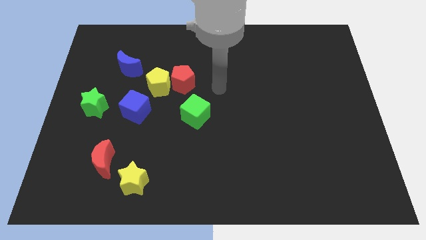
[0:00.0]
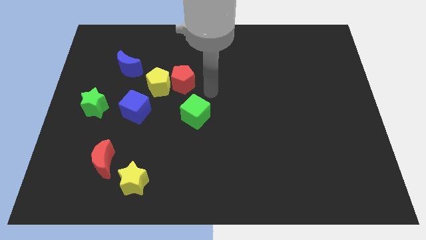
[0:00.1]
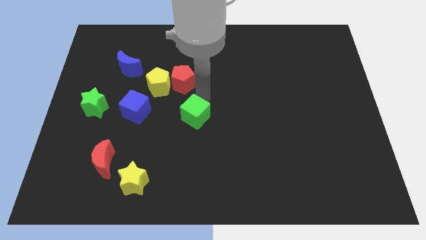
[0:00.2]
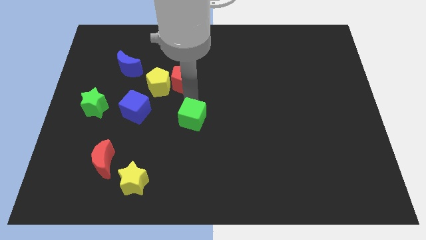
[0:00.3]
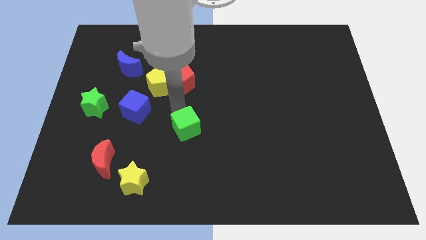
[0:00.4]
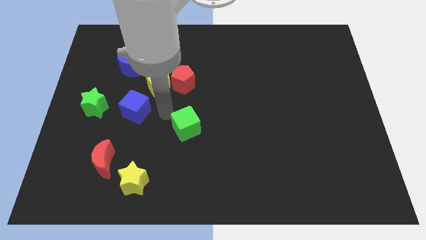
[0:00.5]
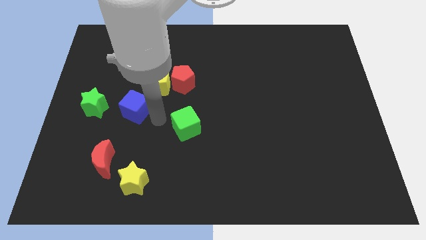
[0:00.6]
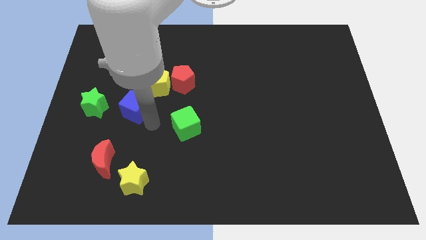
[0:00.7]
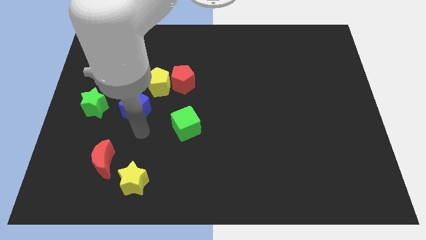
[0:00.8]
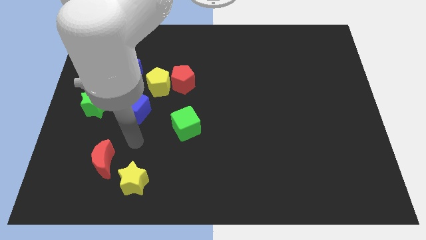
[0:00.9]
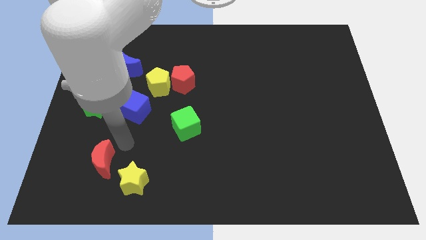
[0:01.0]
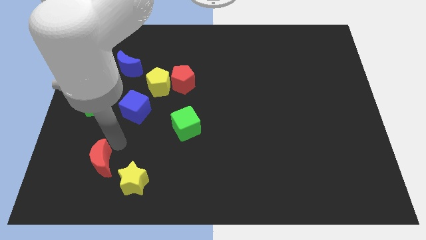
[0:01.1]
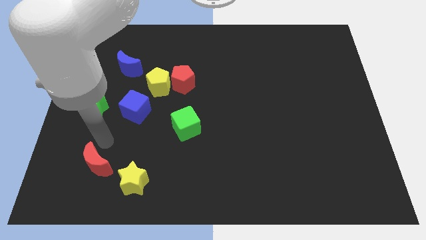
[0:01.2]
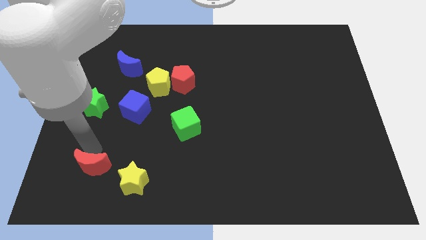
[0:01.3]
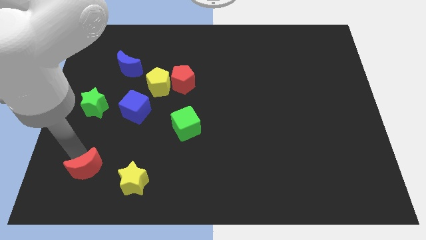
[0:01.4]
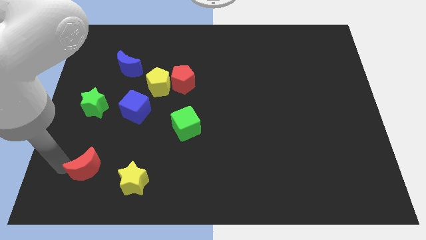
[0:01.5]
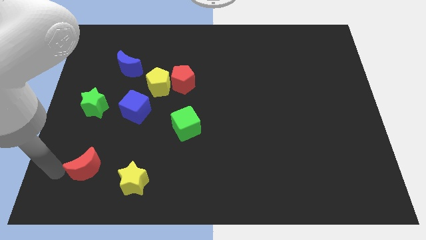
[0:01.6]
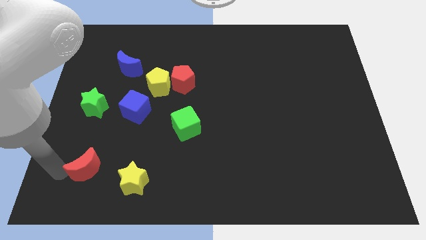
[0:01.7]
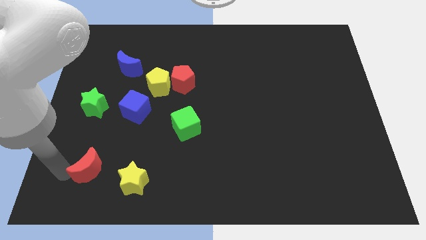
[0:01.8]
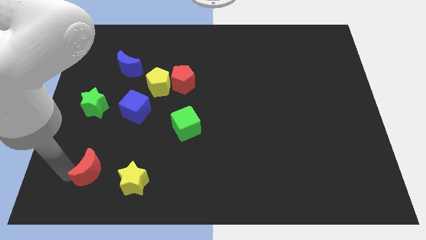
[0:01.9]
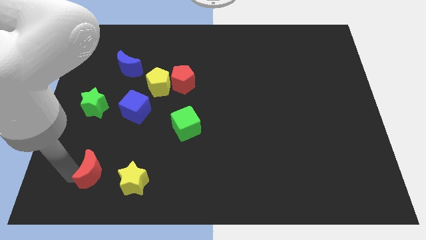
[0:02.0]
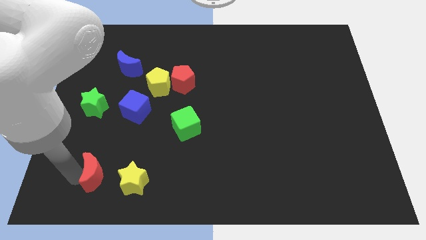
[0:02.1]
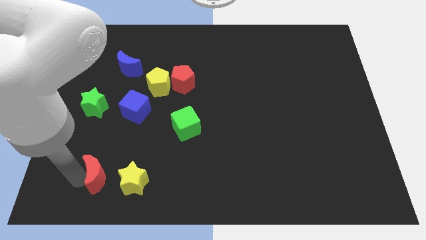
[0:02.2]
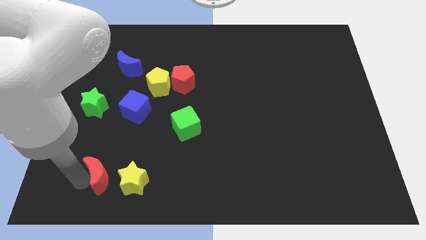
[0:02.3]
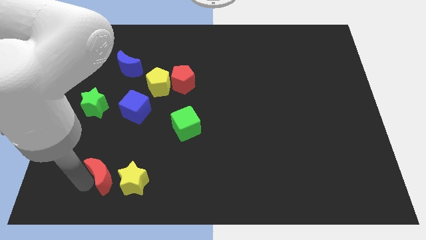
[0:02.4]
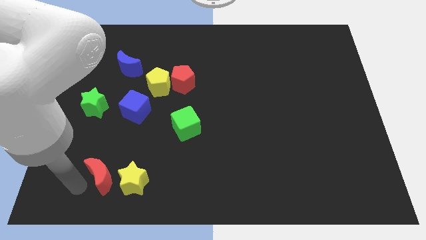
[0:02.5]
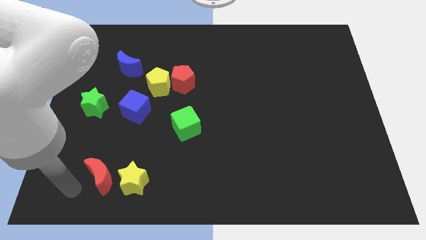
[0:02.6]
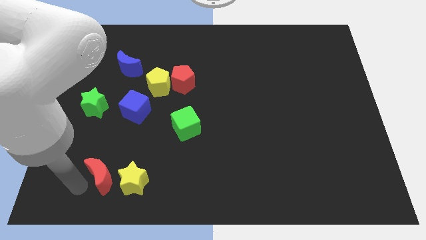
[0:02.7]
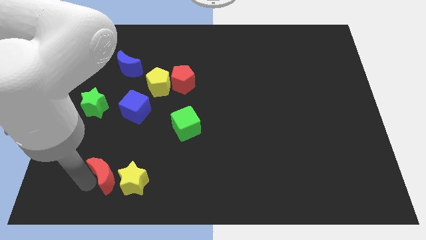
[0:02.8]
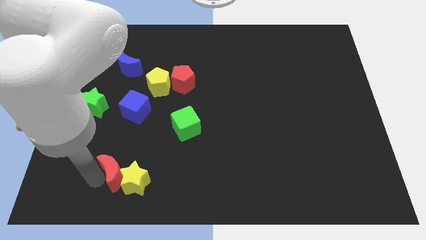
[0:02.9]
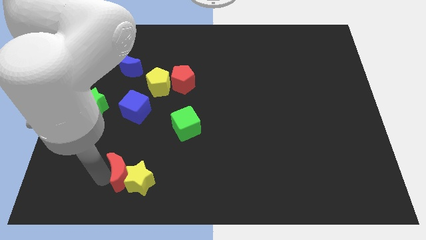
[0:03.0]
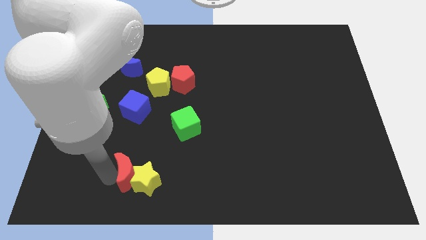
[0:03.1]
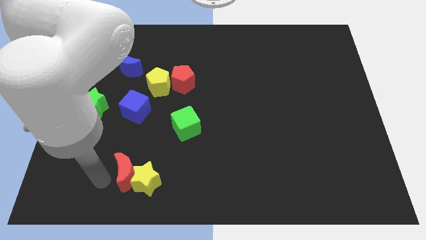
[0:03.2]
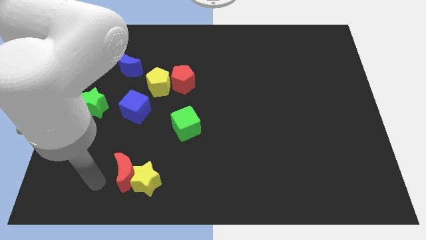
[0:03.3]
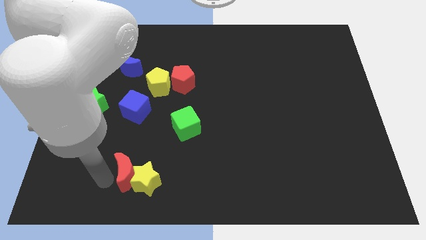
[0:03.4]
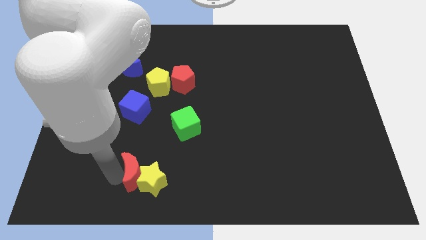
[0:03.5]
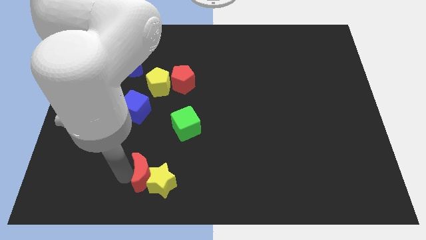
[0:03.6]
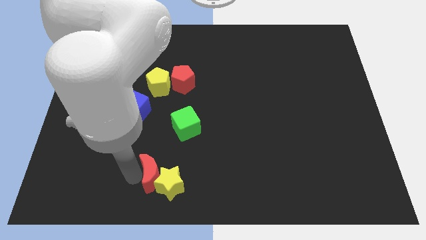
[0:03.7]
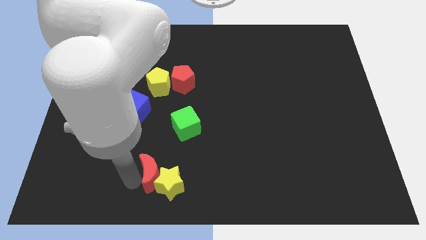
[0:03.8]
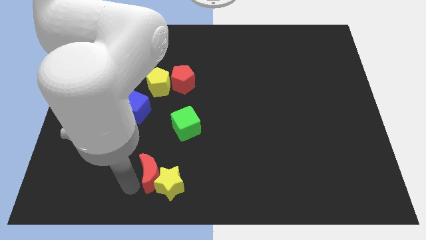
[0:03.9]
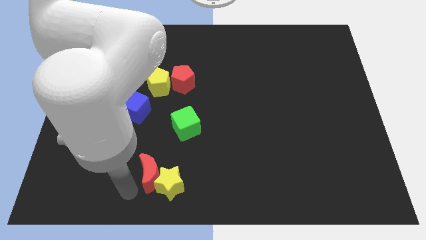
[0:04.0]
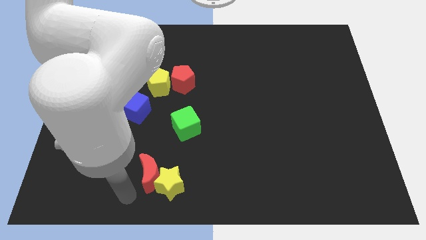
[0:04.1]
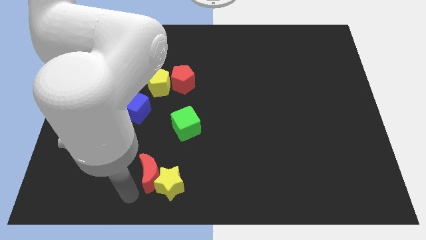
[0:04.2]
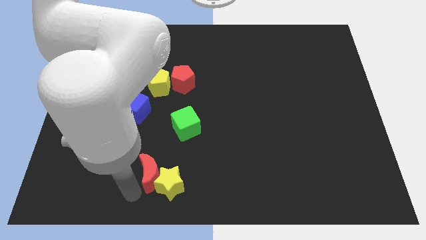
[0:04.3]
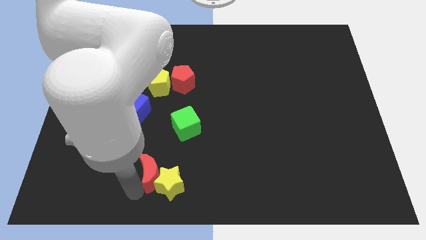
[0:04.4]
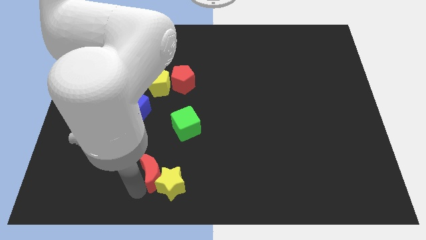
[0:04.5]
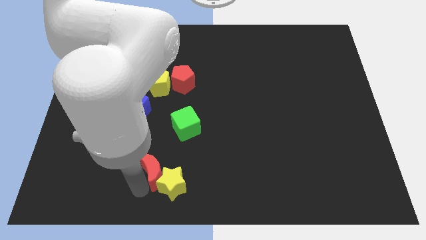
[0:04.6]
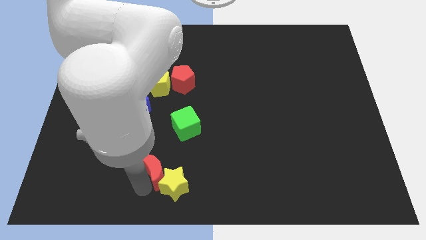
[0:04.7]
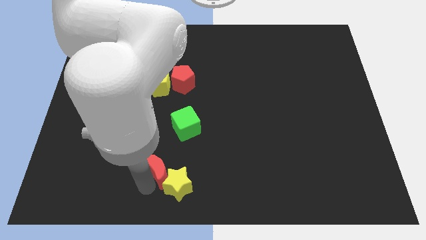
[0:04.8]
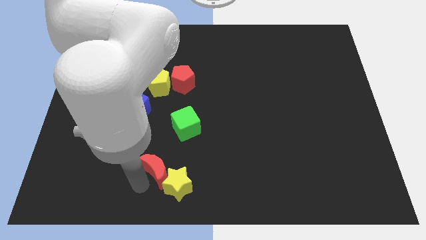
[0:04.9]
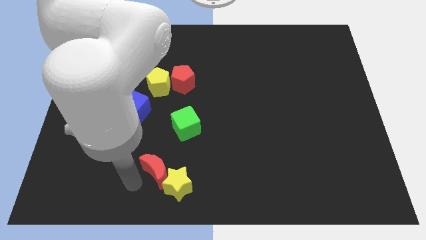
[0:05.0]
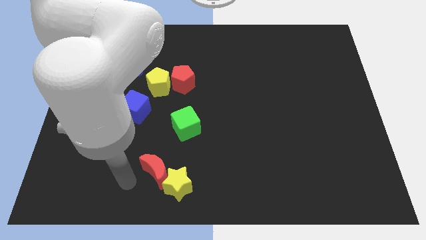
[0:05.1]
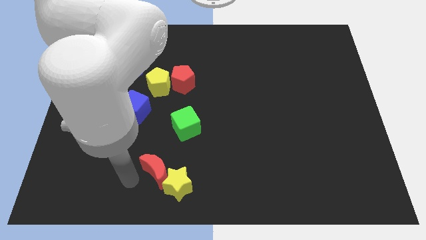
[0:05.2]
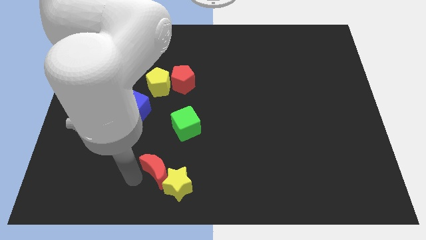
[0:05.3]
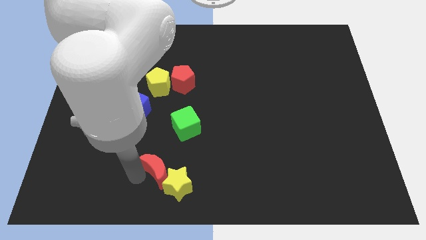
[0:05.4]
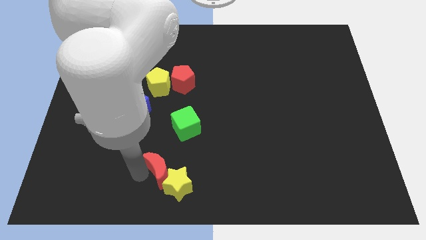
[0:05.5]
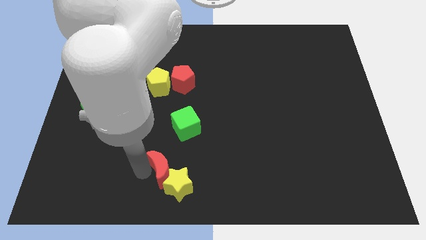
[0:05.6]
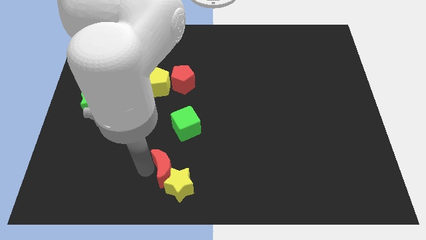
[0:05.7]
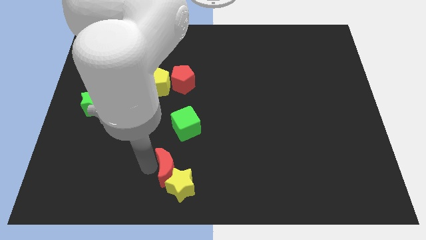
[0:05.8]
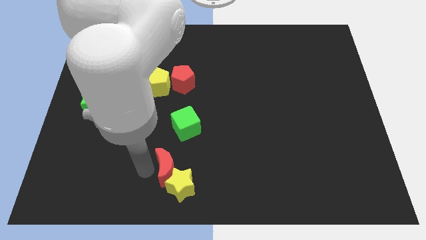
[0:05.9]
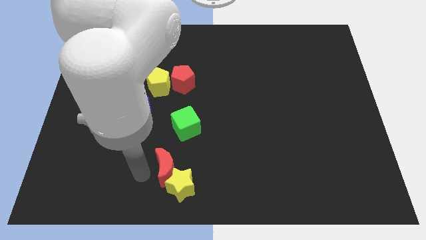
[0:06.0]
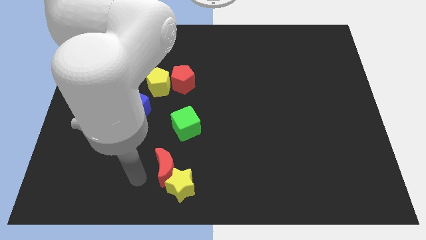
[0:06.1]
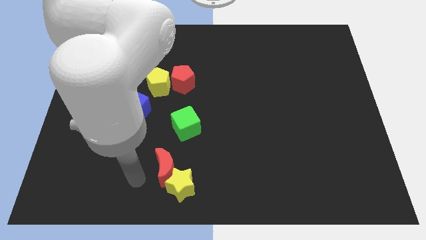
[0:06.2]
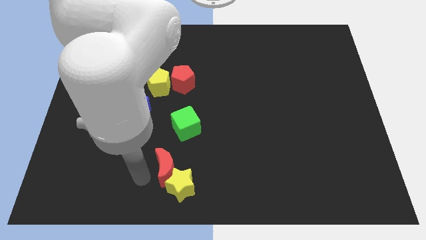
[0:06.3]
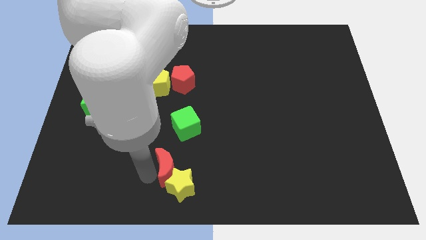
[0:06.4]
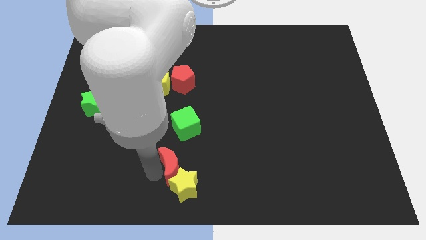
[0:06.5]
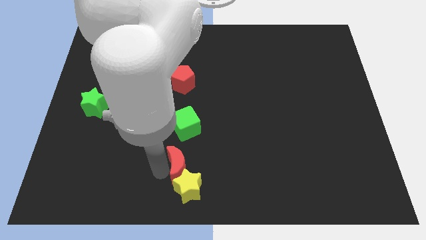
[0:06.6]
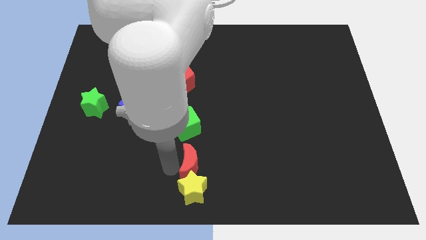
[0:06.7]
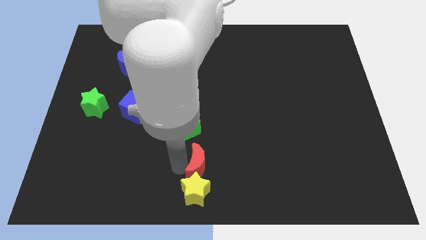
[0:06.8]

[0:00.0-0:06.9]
push the red moon right

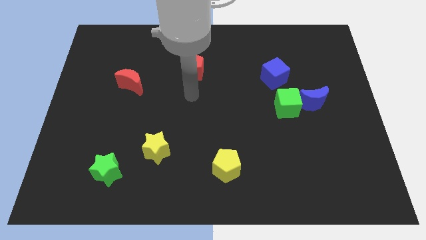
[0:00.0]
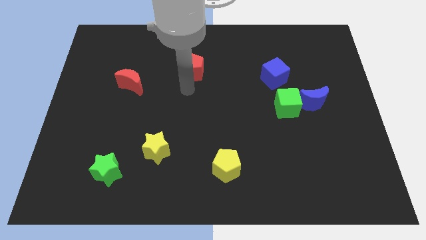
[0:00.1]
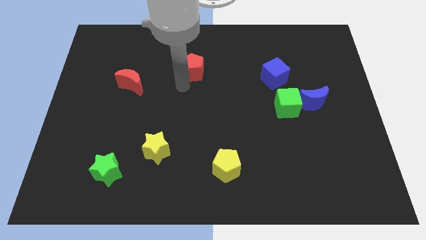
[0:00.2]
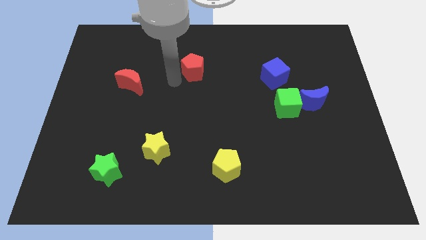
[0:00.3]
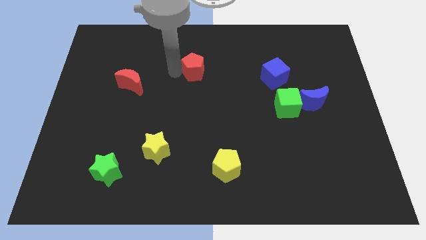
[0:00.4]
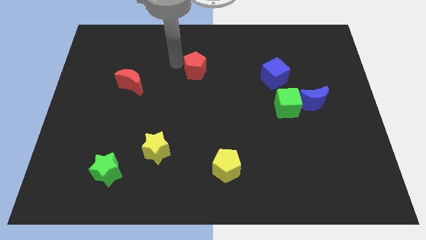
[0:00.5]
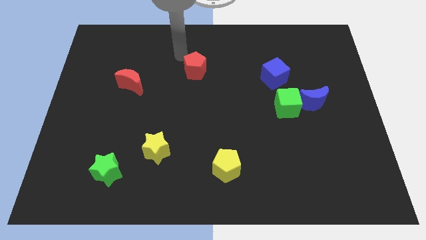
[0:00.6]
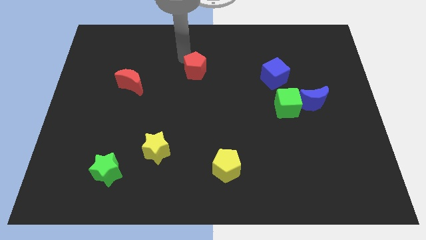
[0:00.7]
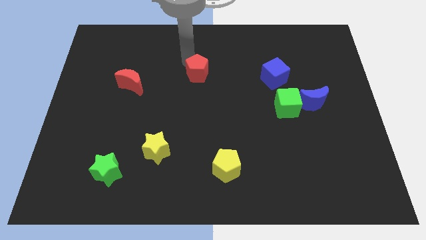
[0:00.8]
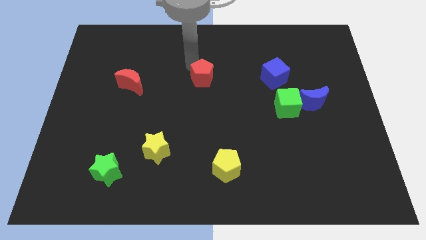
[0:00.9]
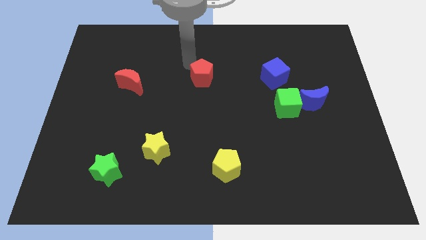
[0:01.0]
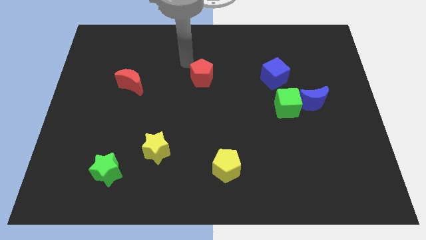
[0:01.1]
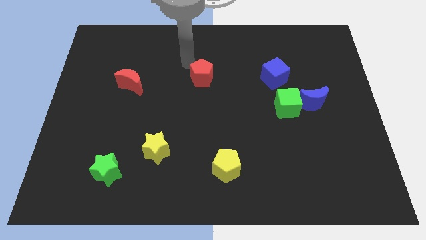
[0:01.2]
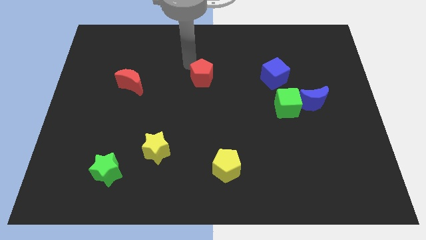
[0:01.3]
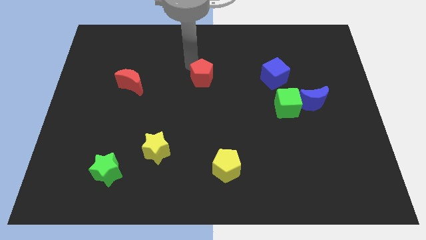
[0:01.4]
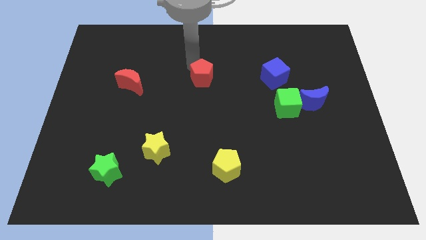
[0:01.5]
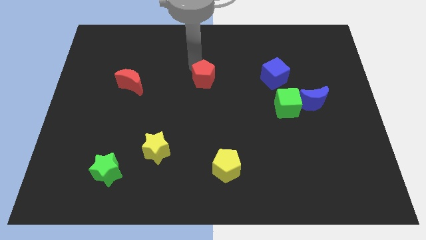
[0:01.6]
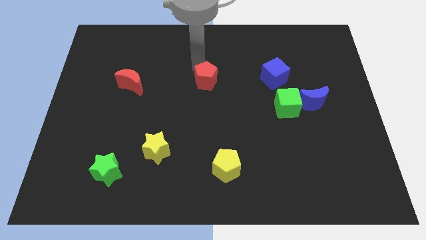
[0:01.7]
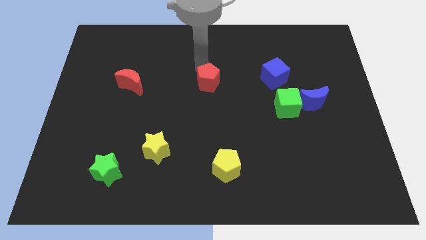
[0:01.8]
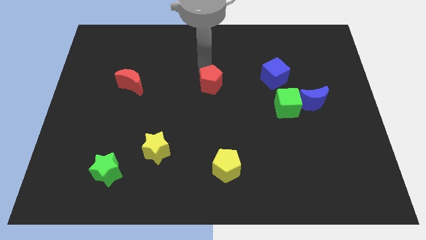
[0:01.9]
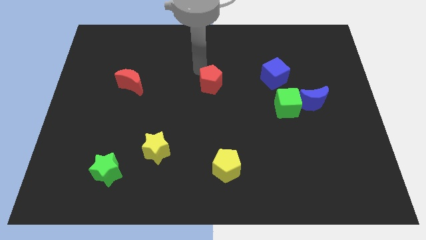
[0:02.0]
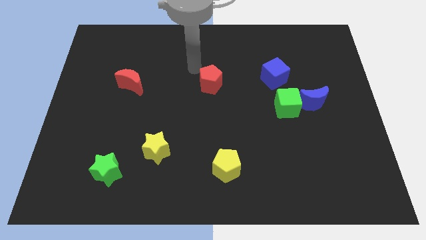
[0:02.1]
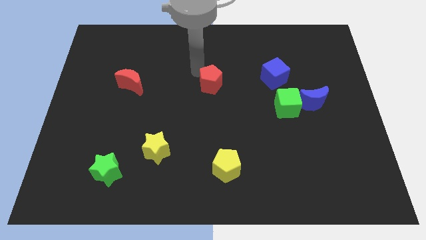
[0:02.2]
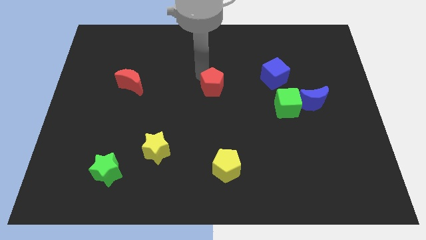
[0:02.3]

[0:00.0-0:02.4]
slide the red pentagon a little diagonally downwards and right
